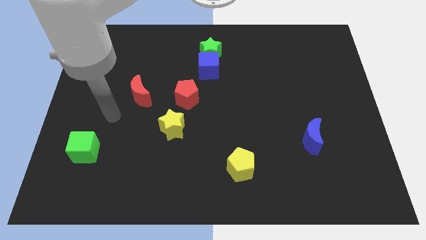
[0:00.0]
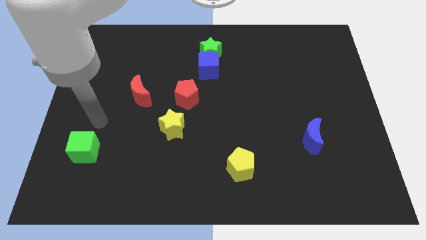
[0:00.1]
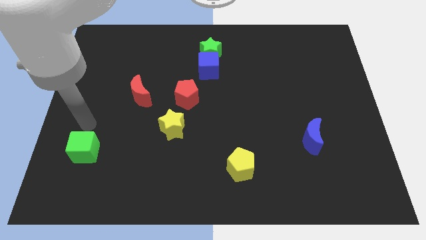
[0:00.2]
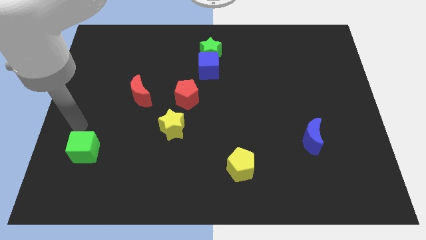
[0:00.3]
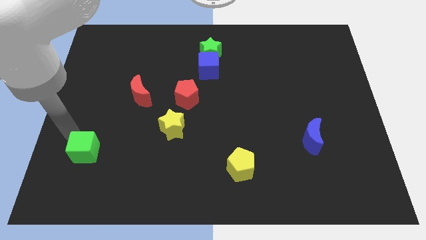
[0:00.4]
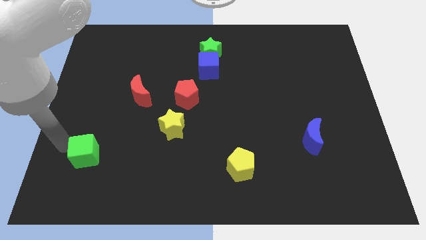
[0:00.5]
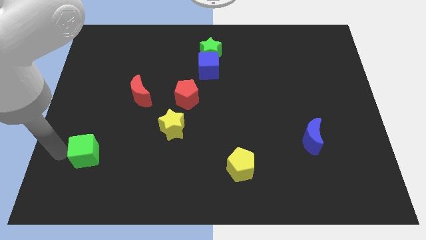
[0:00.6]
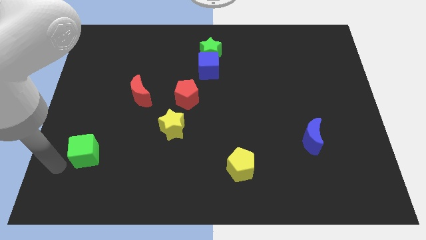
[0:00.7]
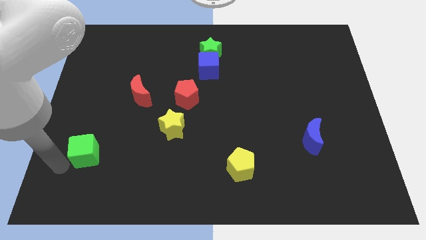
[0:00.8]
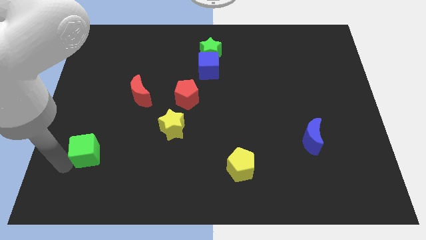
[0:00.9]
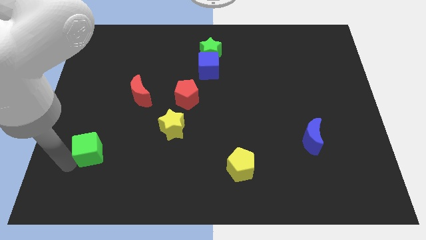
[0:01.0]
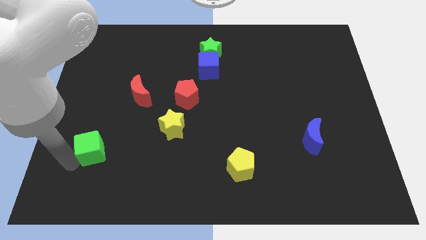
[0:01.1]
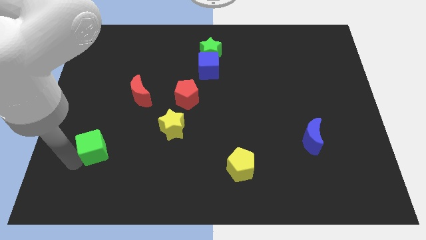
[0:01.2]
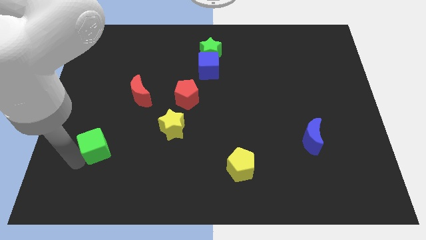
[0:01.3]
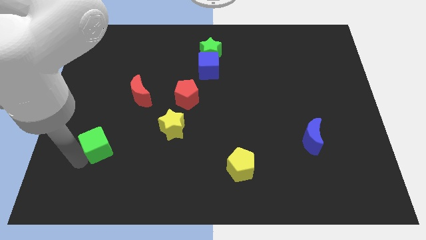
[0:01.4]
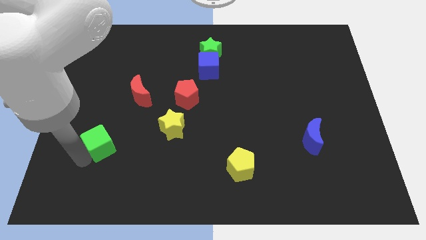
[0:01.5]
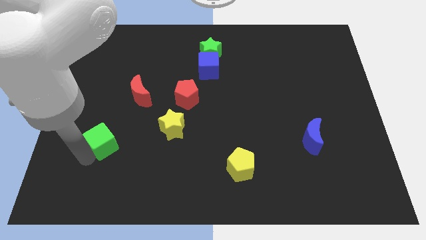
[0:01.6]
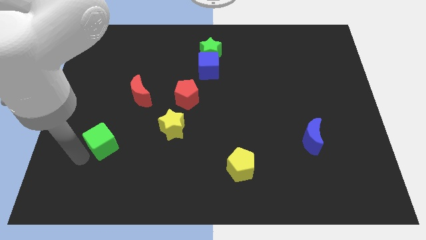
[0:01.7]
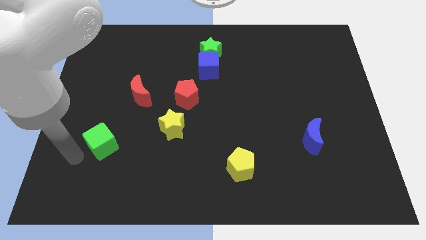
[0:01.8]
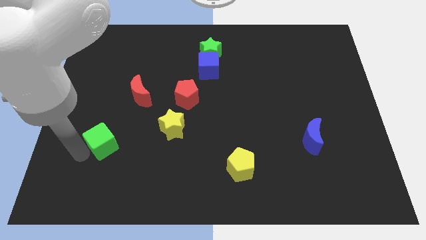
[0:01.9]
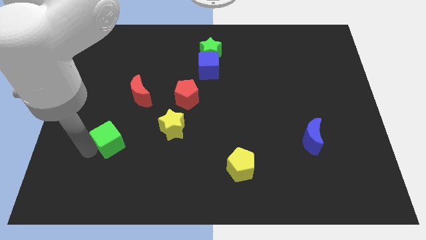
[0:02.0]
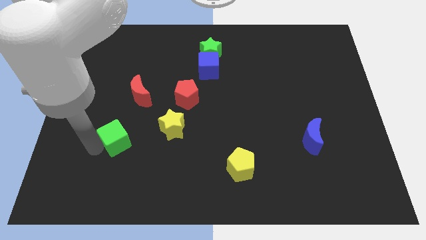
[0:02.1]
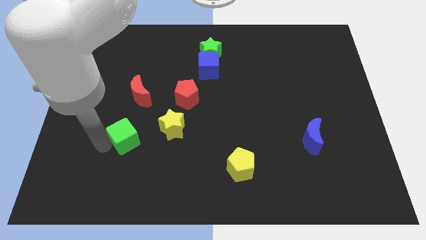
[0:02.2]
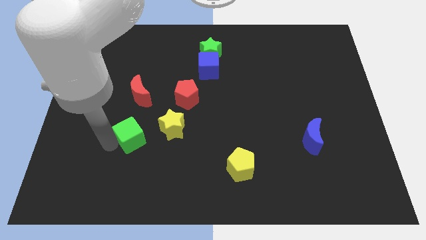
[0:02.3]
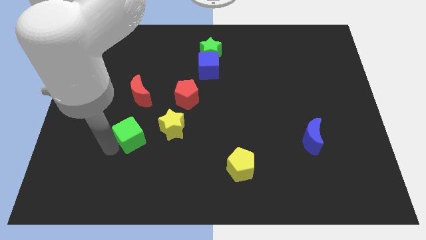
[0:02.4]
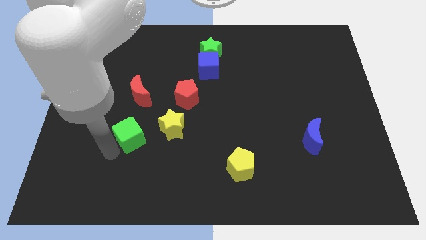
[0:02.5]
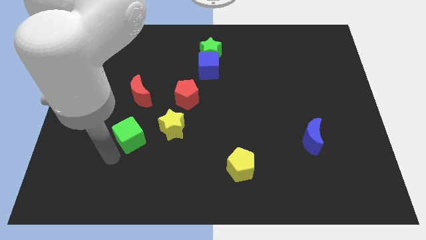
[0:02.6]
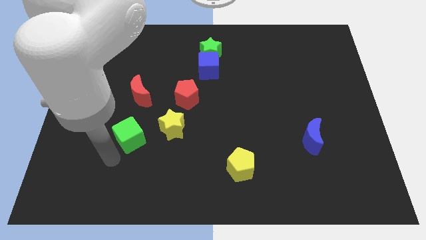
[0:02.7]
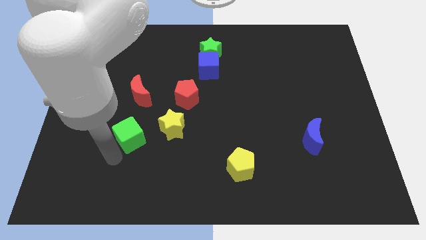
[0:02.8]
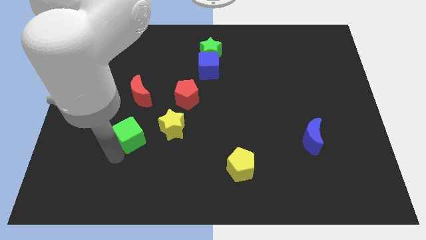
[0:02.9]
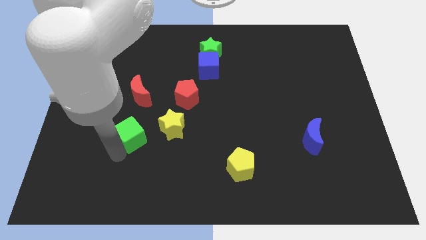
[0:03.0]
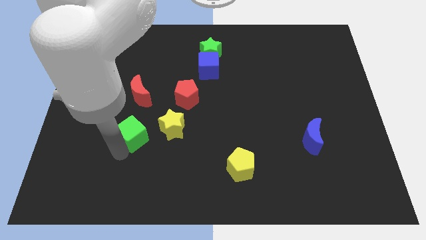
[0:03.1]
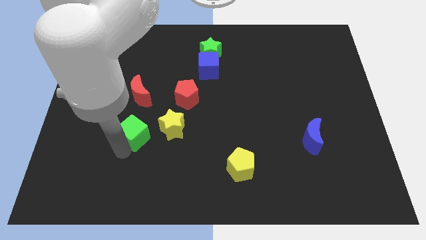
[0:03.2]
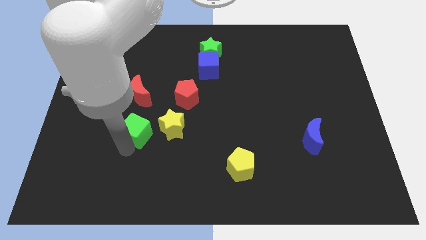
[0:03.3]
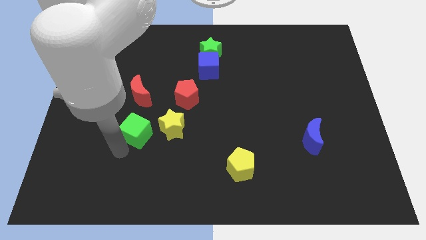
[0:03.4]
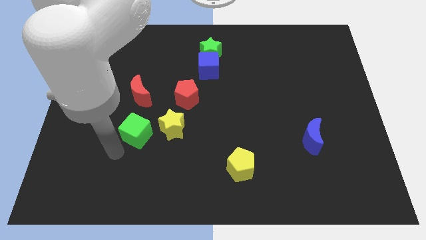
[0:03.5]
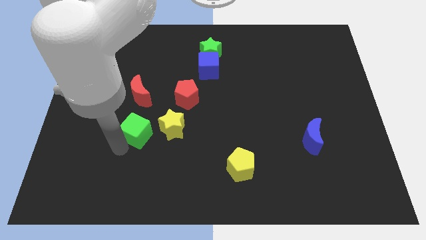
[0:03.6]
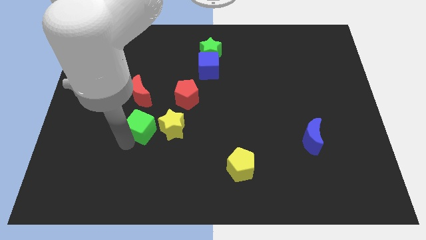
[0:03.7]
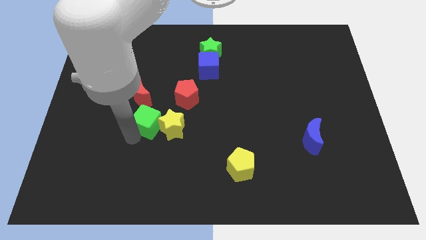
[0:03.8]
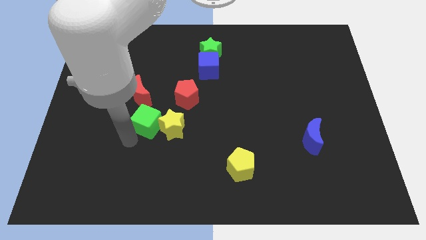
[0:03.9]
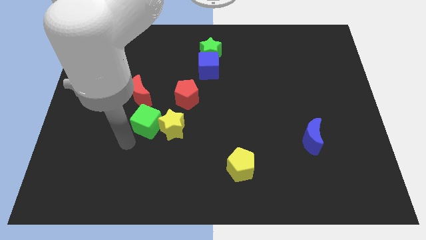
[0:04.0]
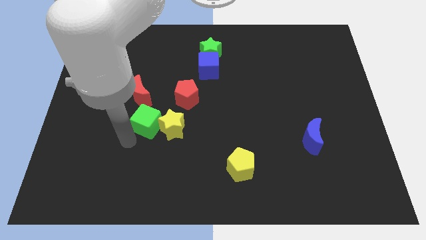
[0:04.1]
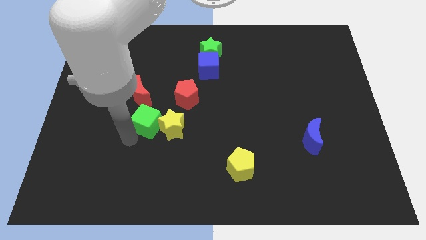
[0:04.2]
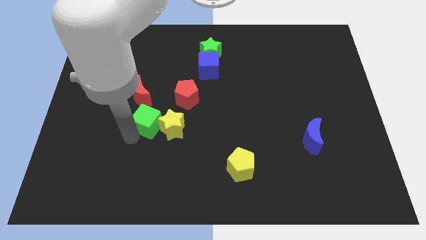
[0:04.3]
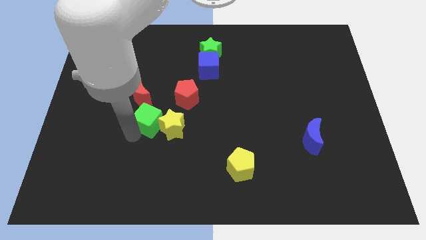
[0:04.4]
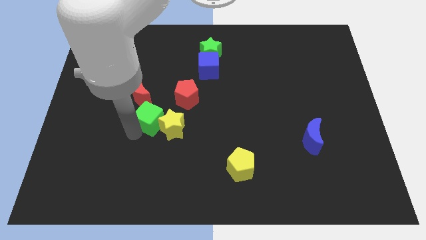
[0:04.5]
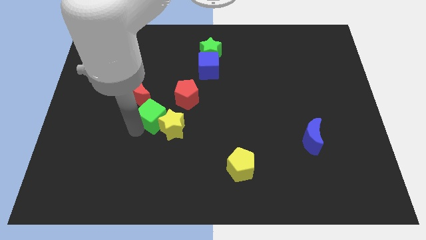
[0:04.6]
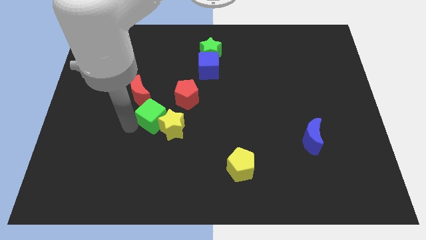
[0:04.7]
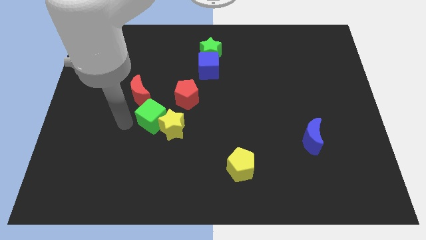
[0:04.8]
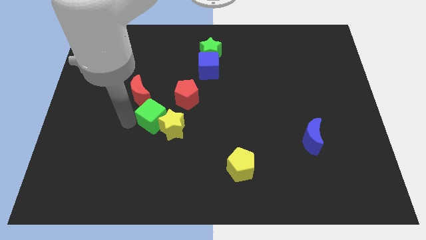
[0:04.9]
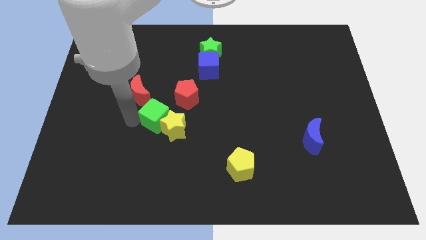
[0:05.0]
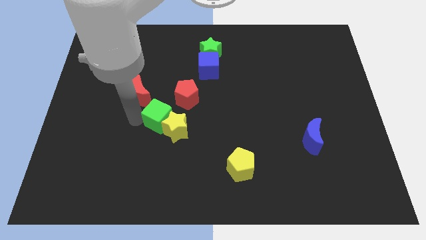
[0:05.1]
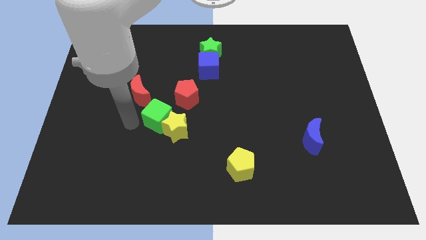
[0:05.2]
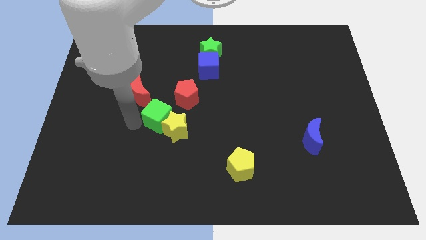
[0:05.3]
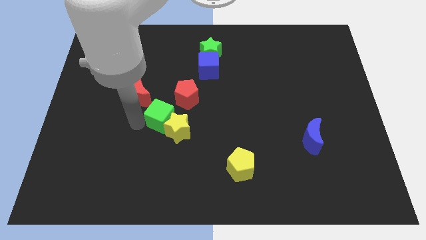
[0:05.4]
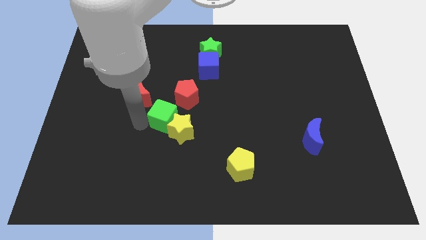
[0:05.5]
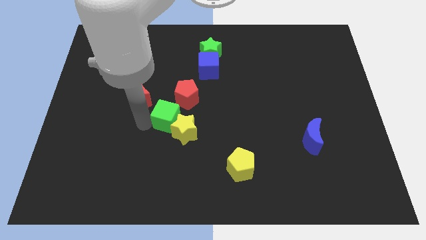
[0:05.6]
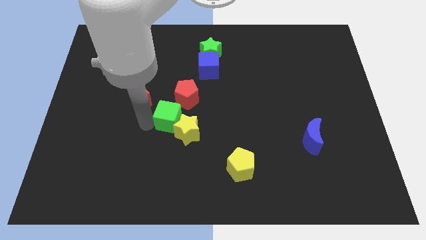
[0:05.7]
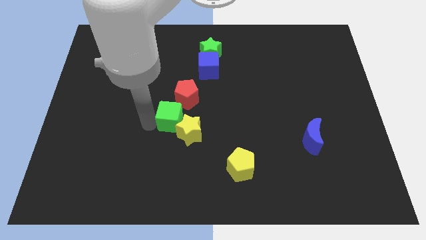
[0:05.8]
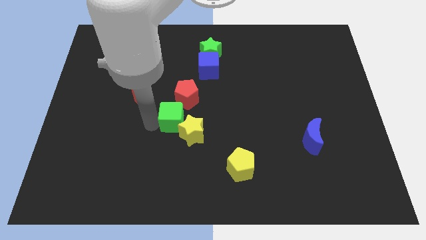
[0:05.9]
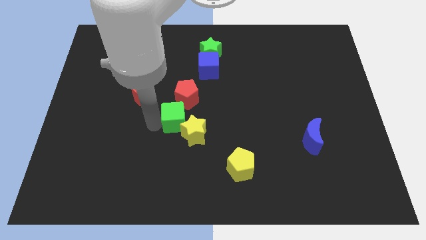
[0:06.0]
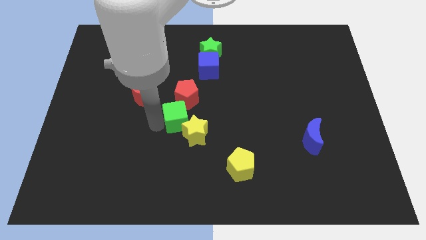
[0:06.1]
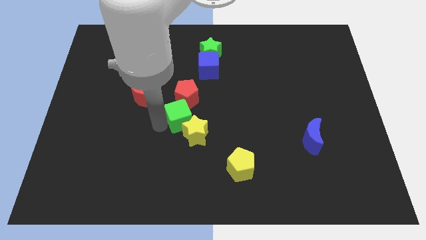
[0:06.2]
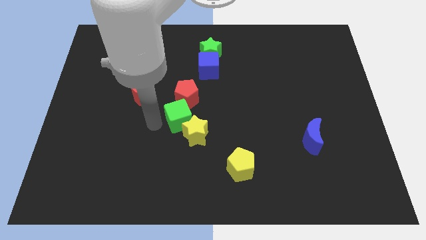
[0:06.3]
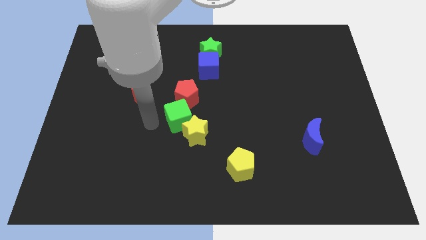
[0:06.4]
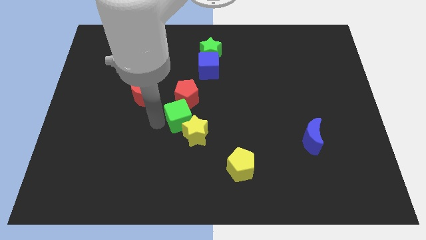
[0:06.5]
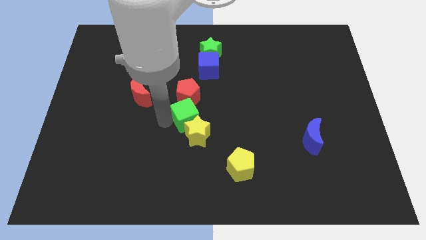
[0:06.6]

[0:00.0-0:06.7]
move the green cube to the bottom right side of the red pentagon
